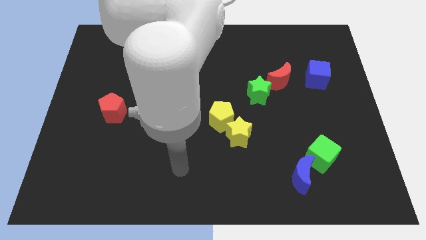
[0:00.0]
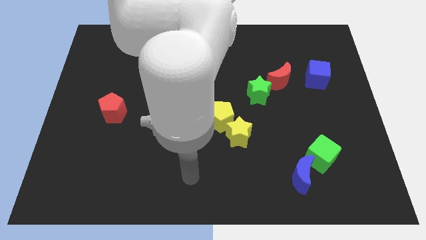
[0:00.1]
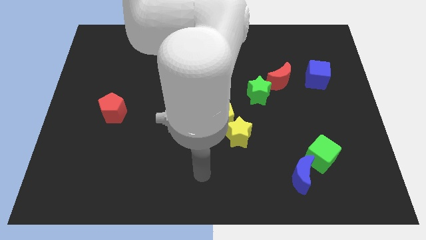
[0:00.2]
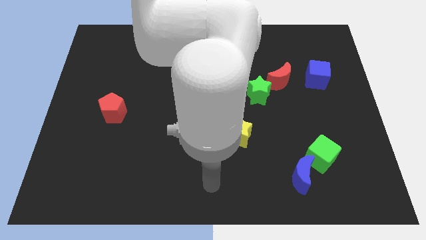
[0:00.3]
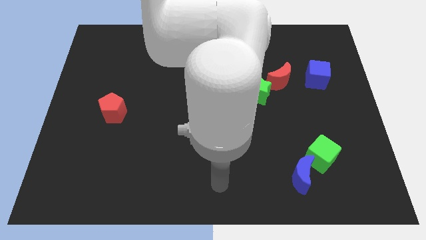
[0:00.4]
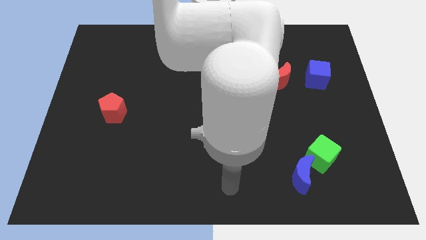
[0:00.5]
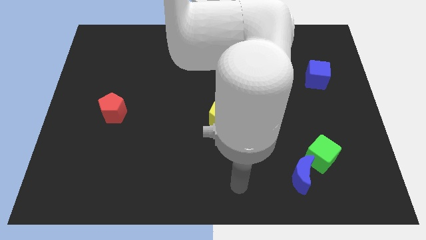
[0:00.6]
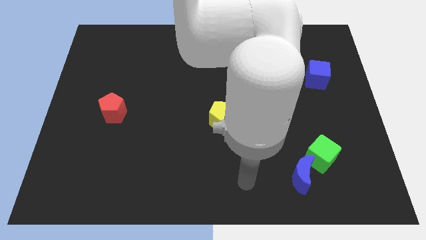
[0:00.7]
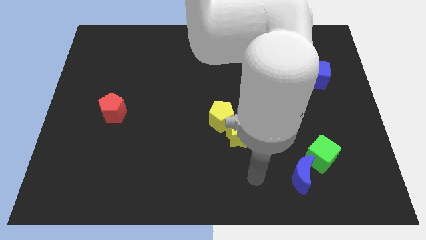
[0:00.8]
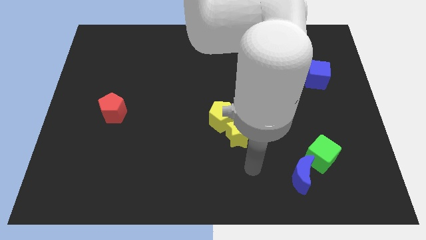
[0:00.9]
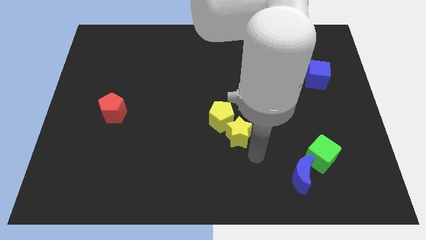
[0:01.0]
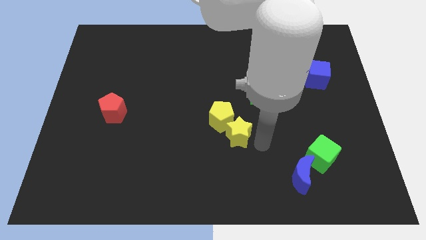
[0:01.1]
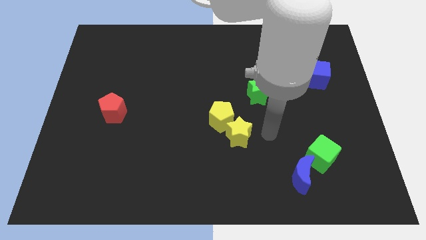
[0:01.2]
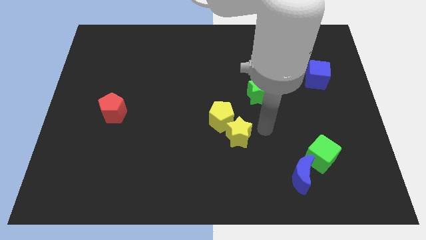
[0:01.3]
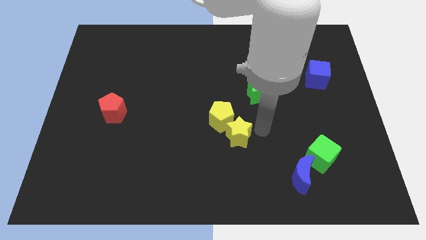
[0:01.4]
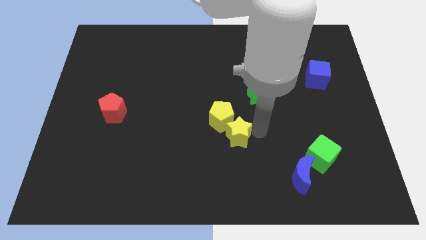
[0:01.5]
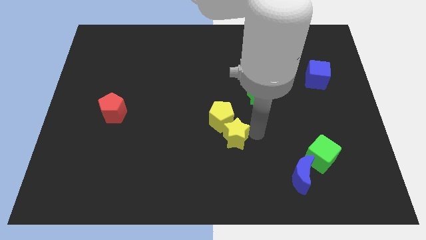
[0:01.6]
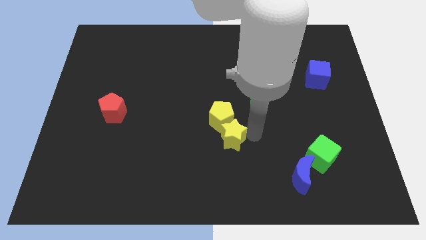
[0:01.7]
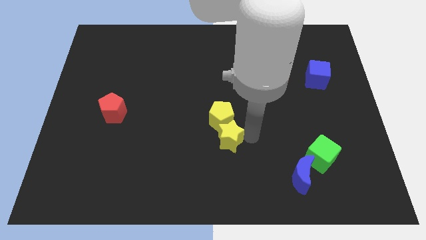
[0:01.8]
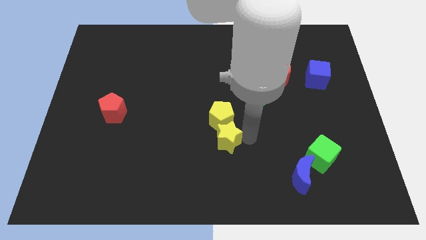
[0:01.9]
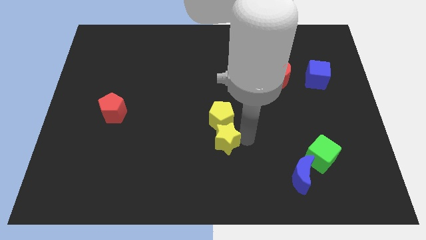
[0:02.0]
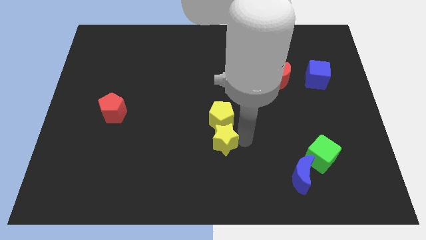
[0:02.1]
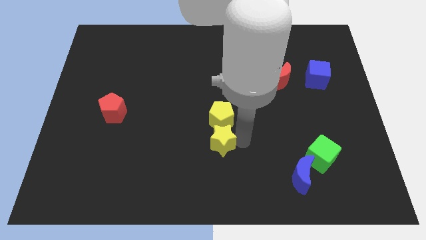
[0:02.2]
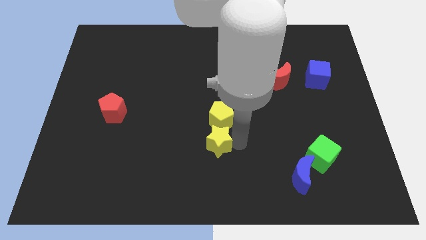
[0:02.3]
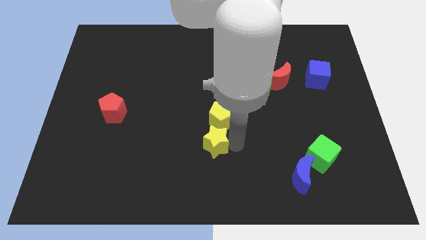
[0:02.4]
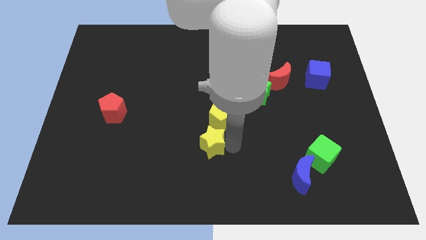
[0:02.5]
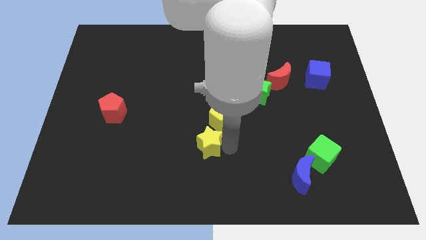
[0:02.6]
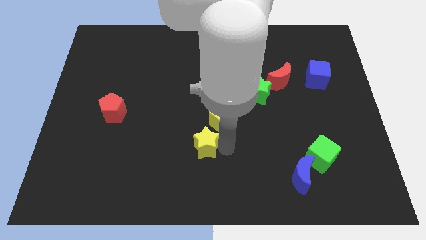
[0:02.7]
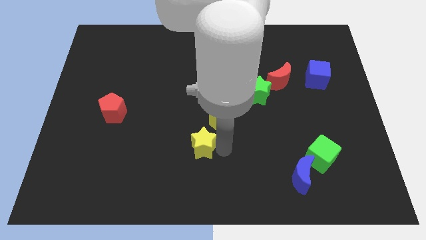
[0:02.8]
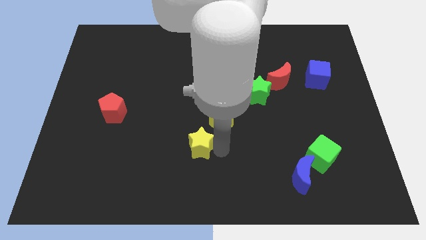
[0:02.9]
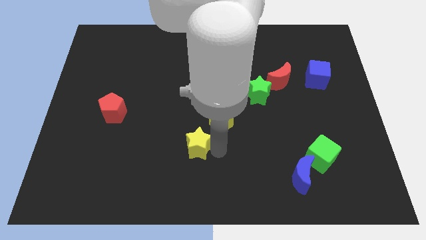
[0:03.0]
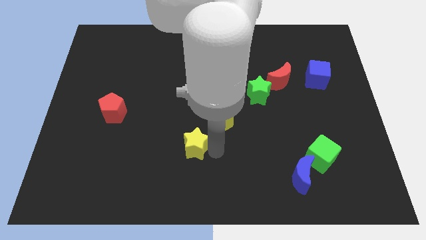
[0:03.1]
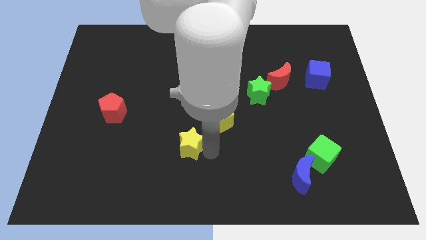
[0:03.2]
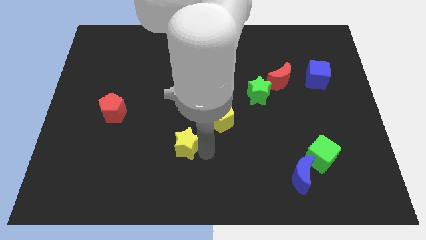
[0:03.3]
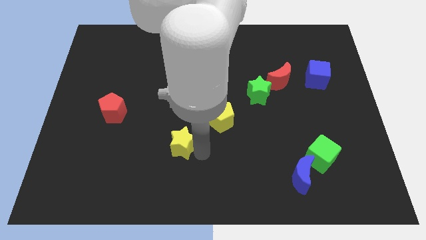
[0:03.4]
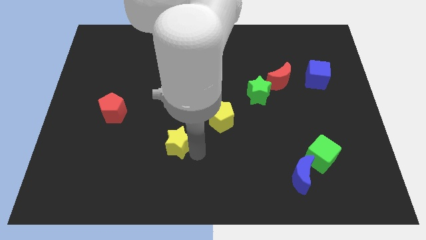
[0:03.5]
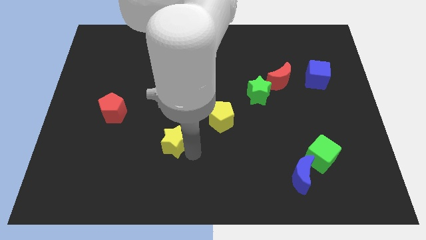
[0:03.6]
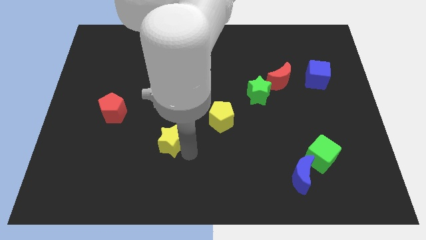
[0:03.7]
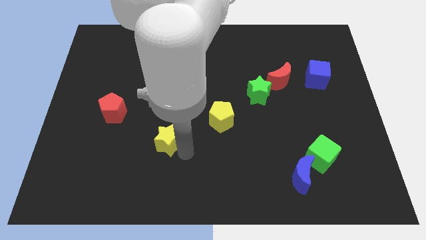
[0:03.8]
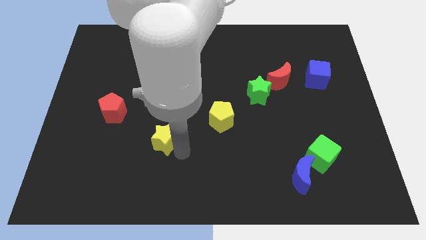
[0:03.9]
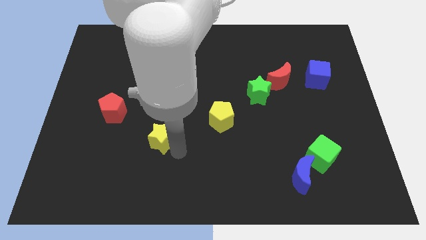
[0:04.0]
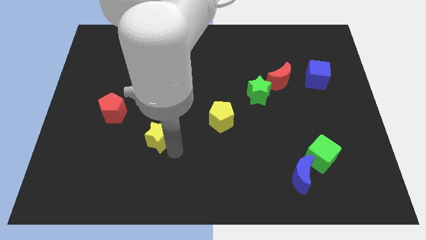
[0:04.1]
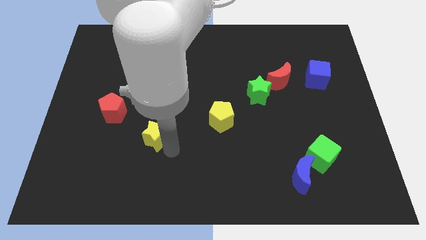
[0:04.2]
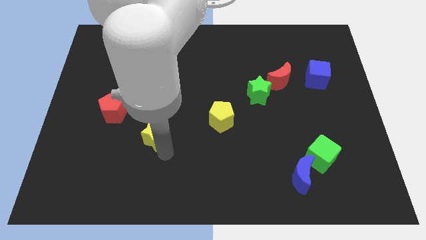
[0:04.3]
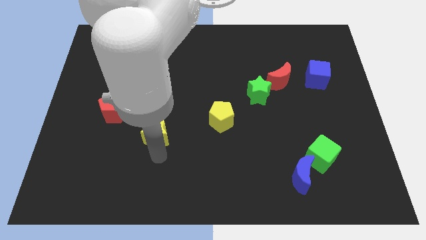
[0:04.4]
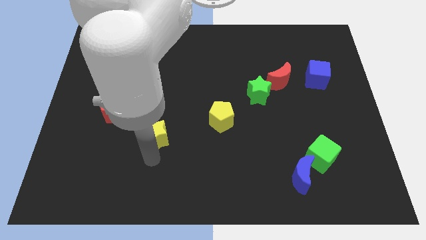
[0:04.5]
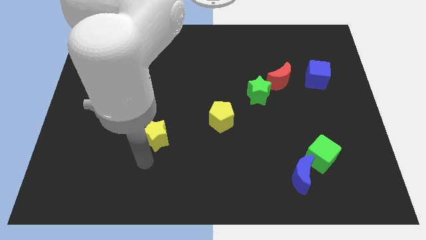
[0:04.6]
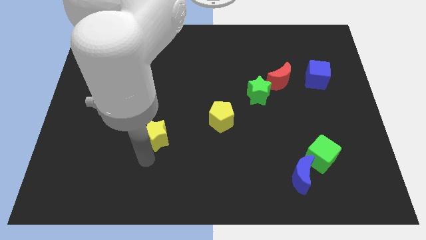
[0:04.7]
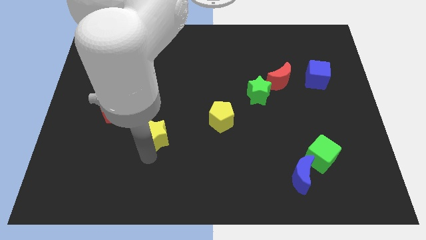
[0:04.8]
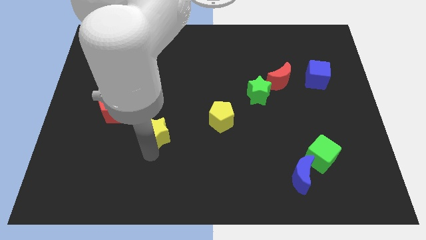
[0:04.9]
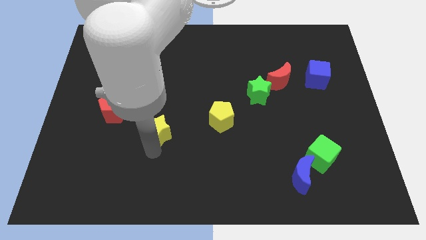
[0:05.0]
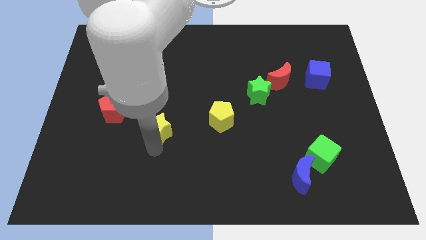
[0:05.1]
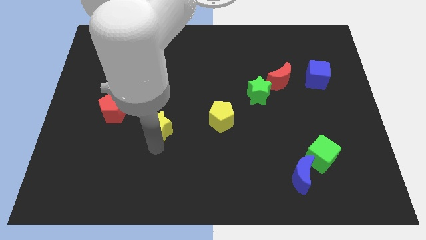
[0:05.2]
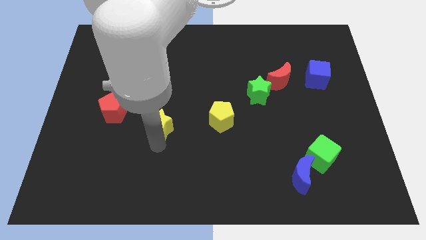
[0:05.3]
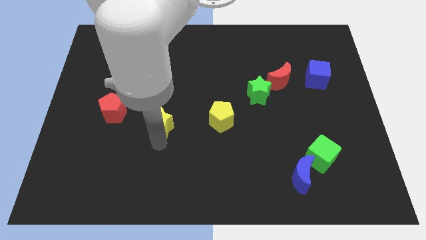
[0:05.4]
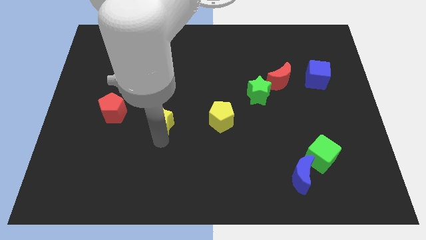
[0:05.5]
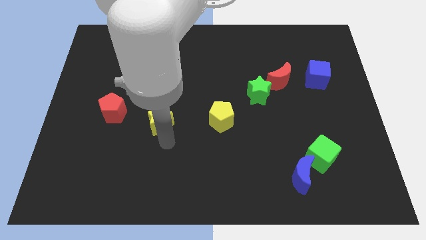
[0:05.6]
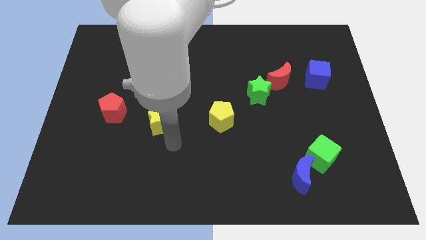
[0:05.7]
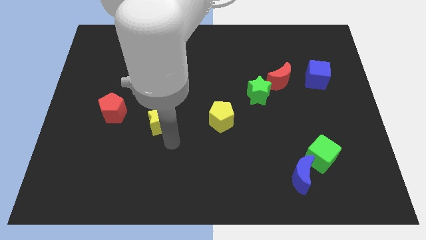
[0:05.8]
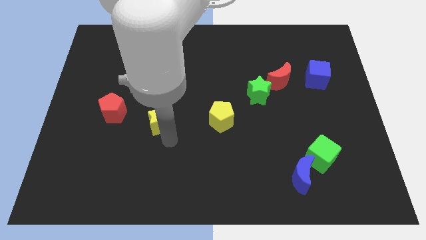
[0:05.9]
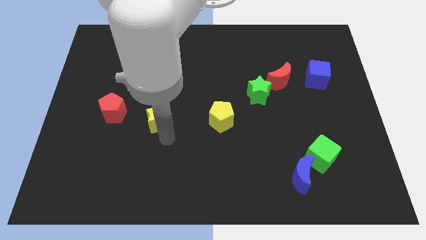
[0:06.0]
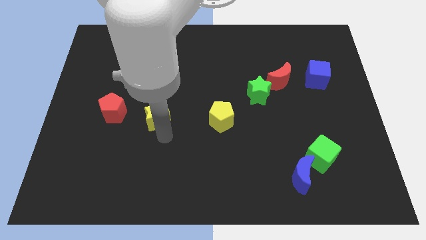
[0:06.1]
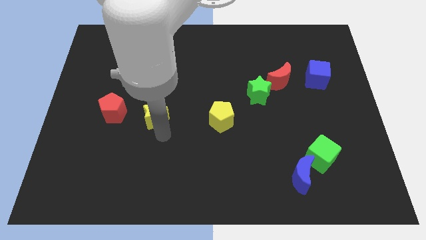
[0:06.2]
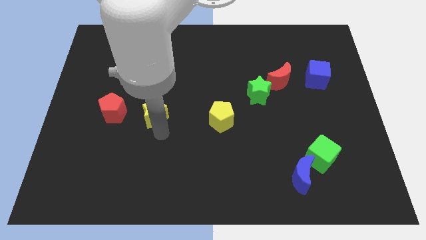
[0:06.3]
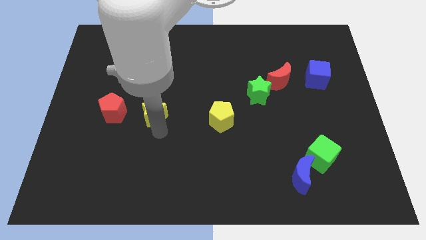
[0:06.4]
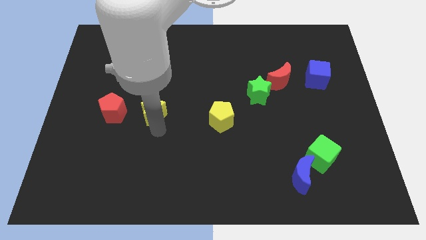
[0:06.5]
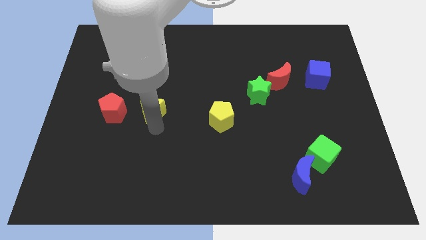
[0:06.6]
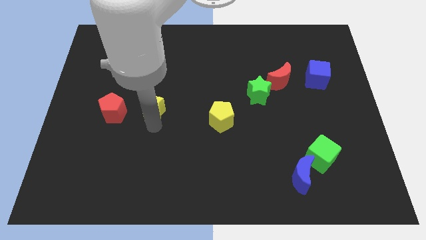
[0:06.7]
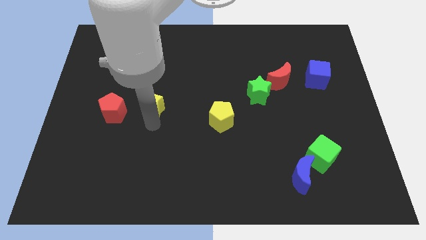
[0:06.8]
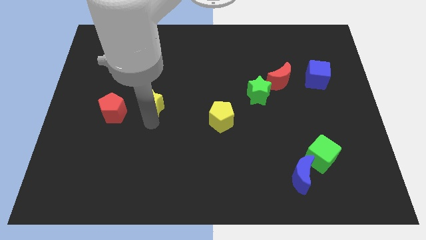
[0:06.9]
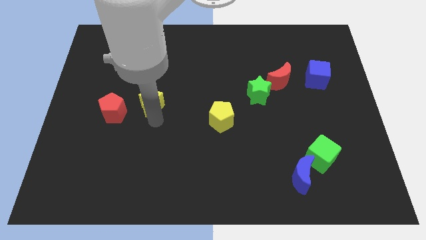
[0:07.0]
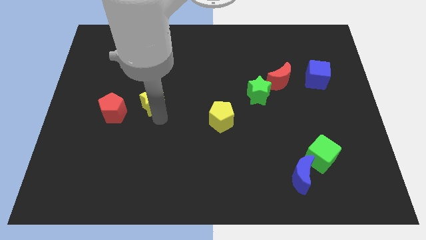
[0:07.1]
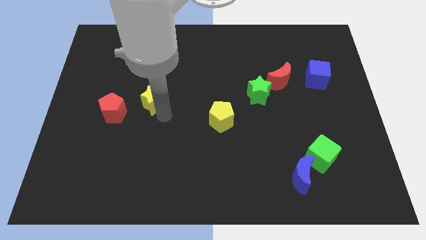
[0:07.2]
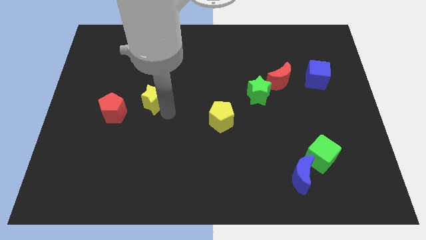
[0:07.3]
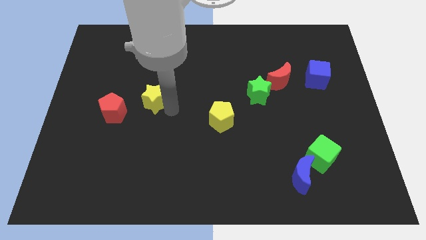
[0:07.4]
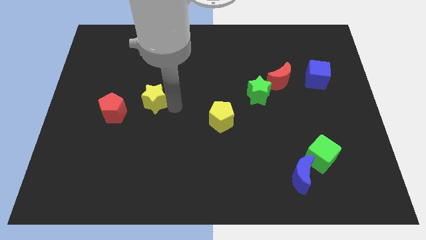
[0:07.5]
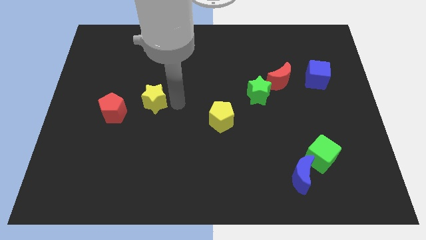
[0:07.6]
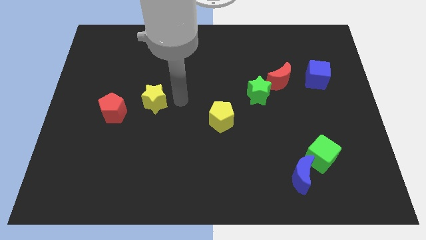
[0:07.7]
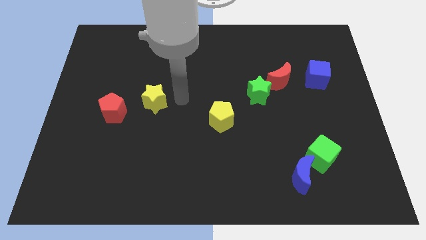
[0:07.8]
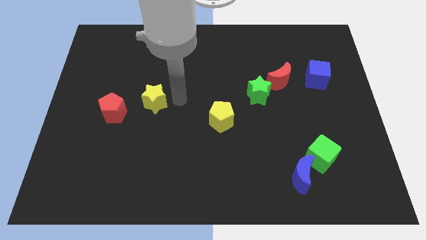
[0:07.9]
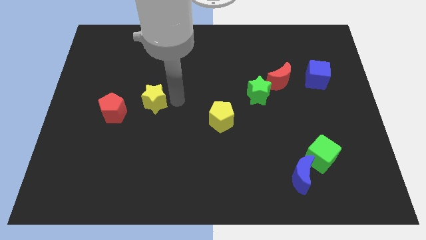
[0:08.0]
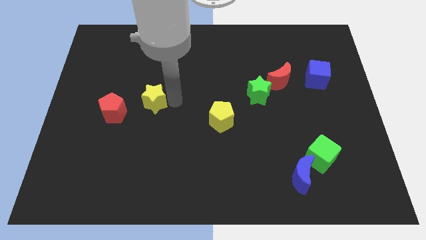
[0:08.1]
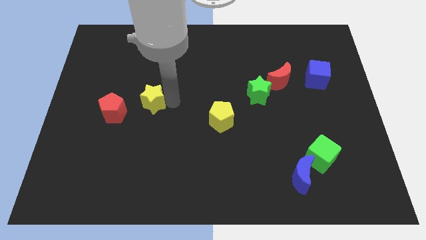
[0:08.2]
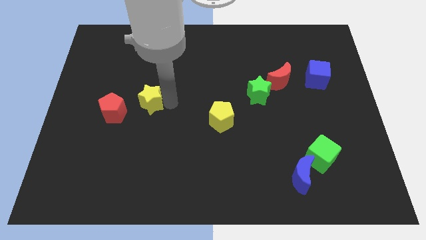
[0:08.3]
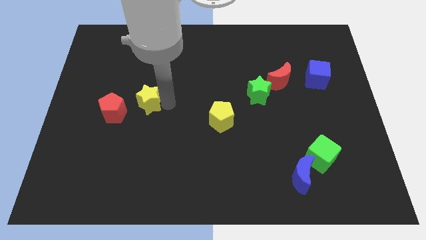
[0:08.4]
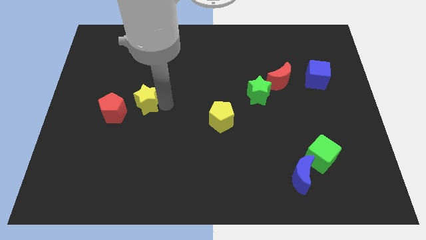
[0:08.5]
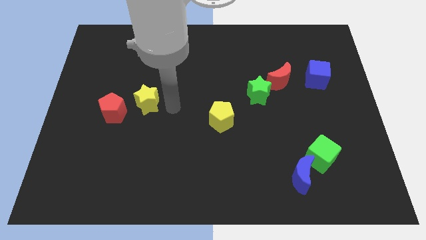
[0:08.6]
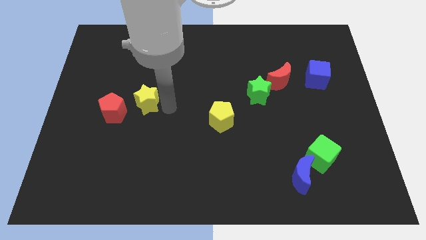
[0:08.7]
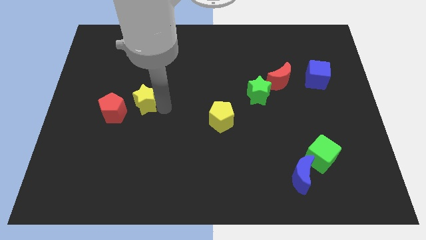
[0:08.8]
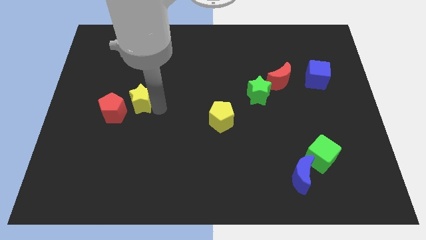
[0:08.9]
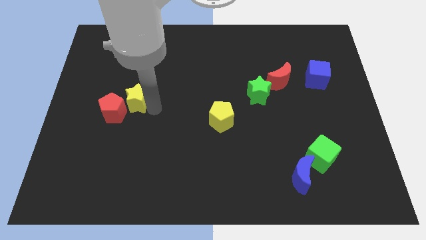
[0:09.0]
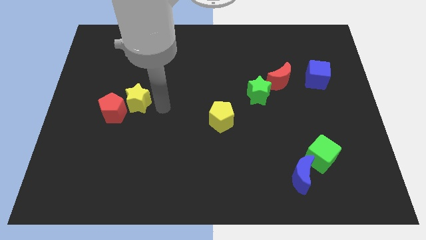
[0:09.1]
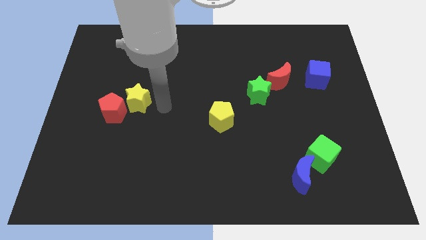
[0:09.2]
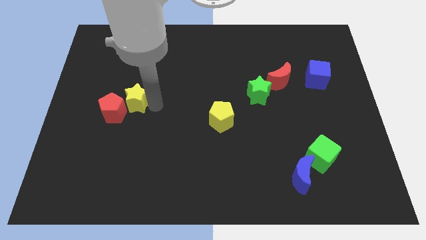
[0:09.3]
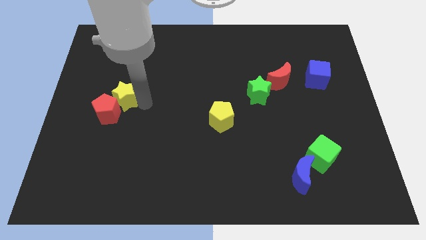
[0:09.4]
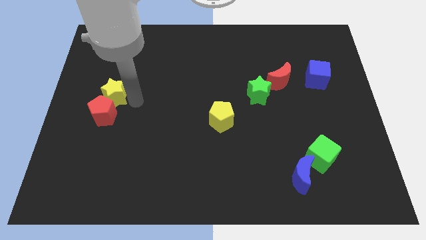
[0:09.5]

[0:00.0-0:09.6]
put the yellow star diagonally up and to the left of the red pentagon
